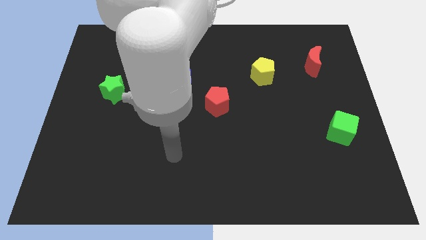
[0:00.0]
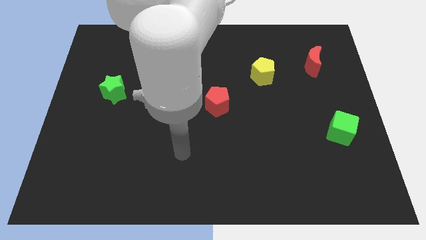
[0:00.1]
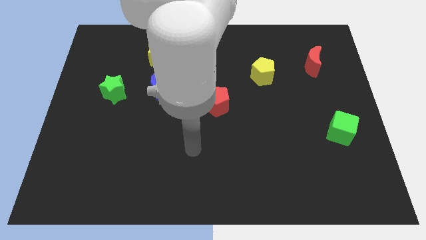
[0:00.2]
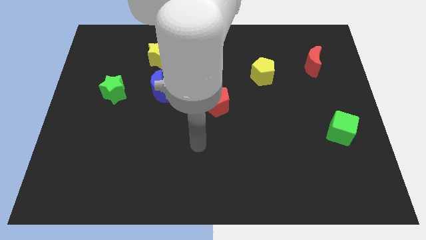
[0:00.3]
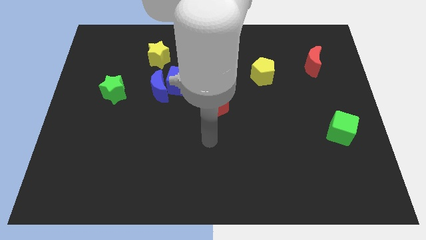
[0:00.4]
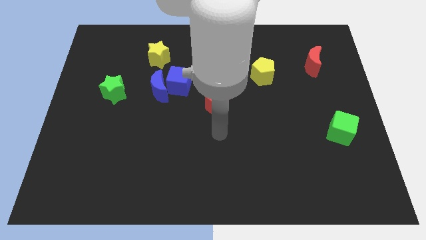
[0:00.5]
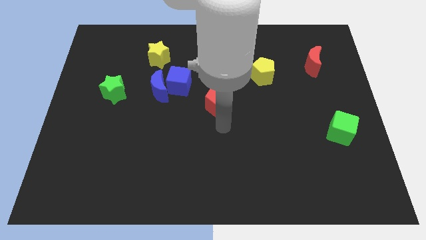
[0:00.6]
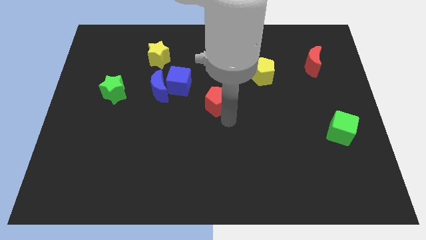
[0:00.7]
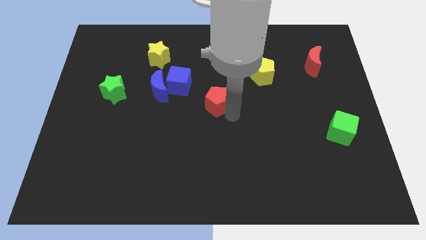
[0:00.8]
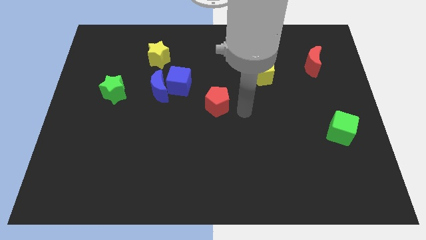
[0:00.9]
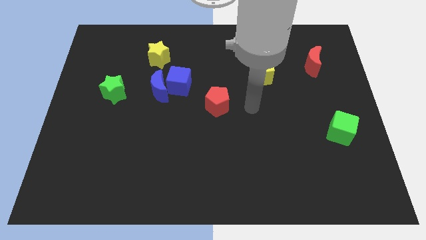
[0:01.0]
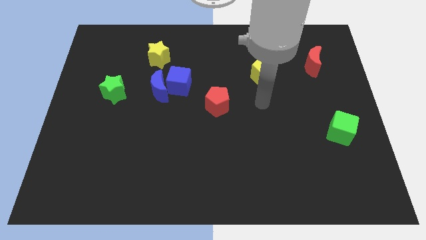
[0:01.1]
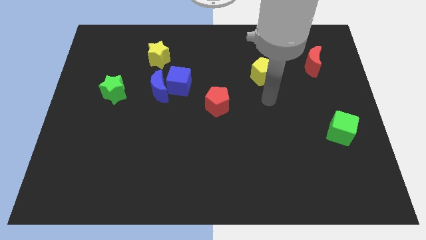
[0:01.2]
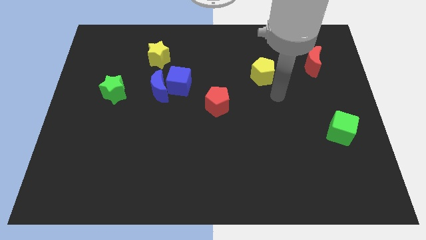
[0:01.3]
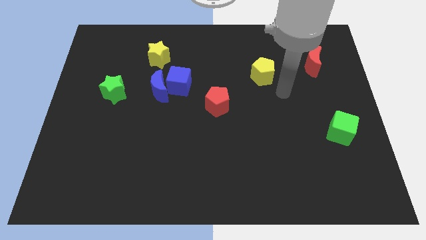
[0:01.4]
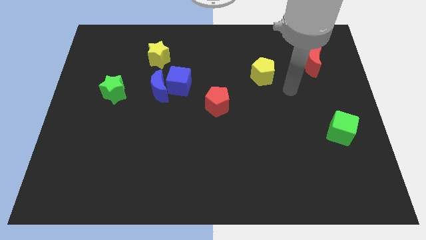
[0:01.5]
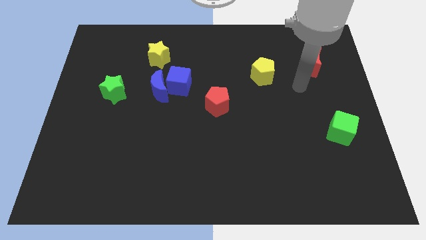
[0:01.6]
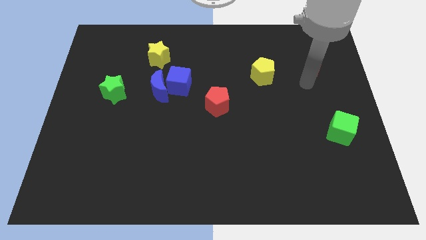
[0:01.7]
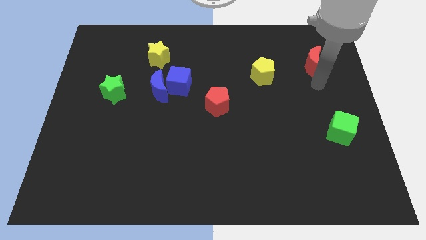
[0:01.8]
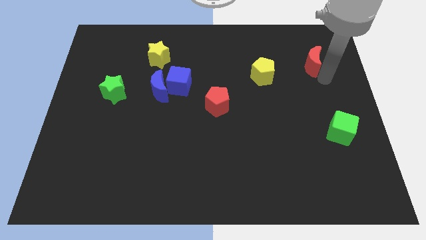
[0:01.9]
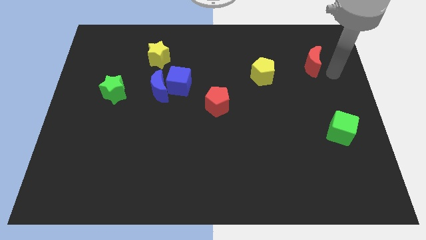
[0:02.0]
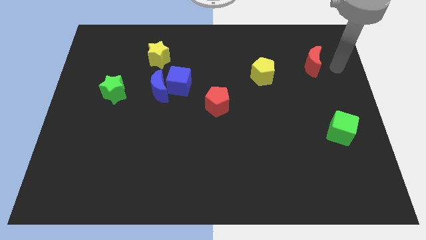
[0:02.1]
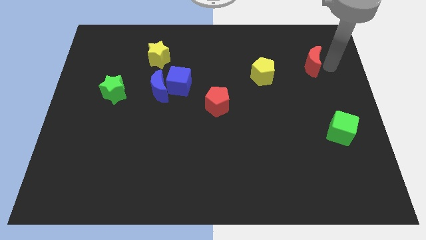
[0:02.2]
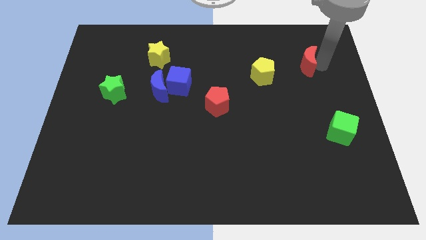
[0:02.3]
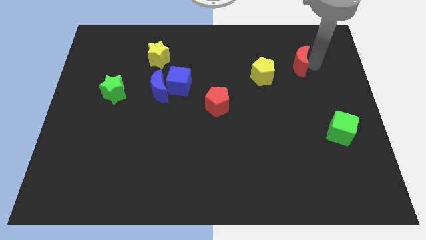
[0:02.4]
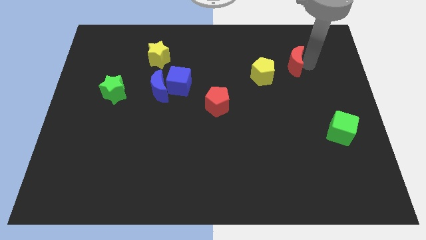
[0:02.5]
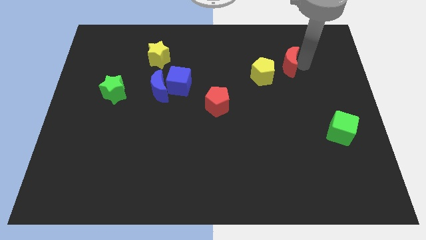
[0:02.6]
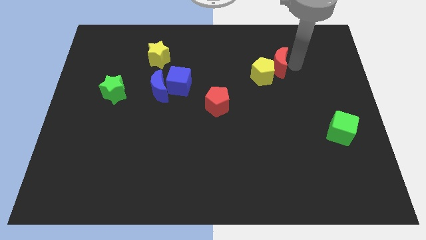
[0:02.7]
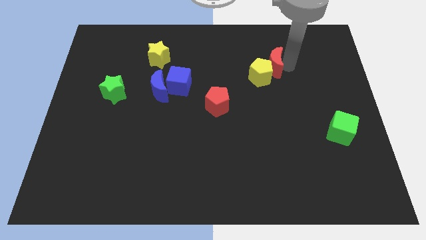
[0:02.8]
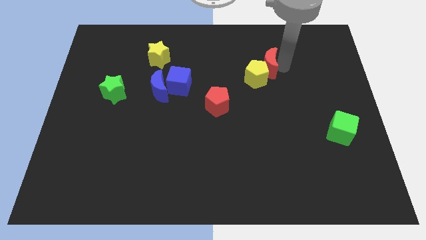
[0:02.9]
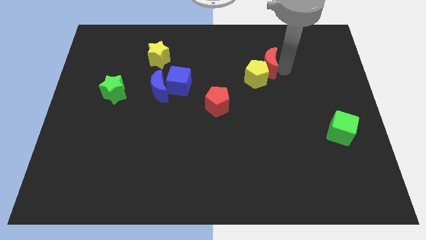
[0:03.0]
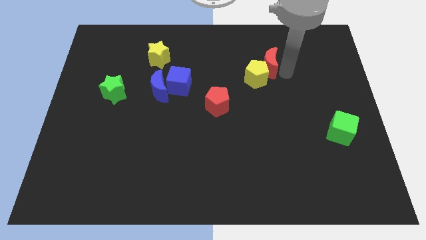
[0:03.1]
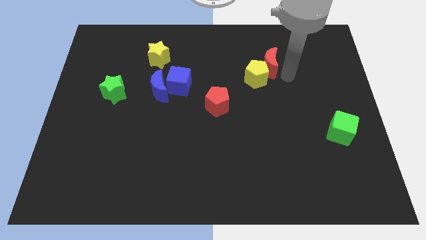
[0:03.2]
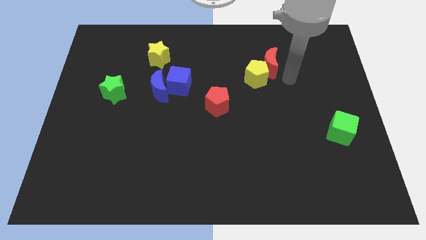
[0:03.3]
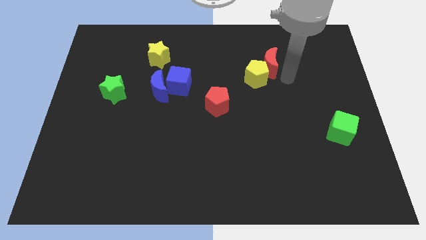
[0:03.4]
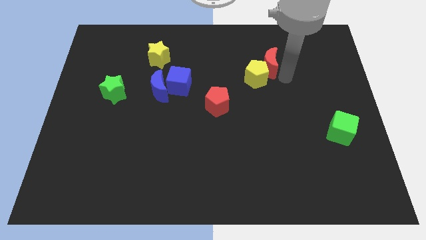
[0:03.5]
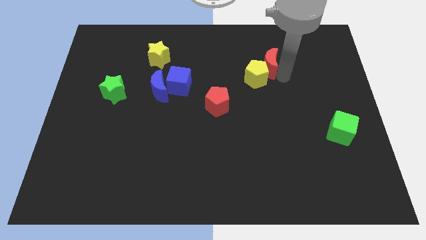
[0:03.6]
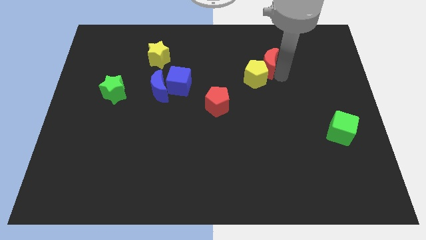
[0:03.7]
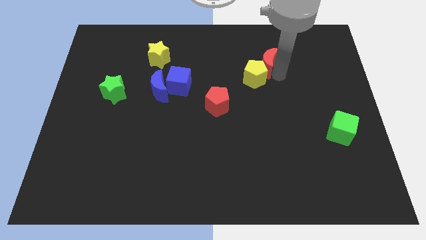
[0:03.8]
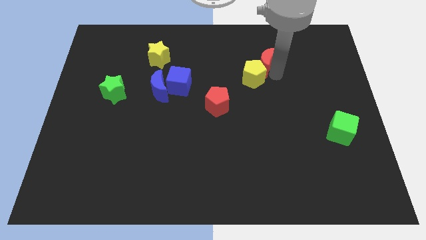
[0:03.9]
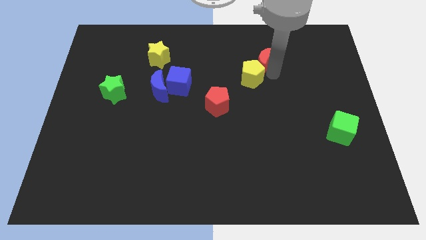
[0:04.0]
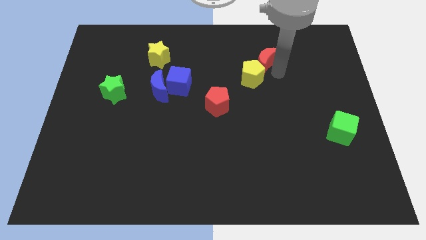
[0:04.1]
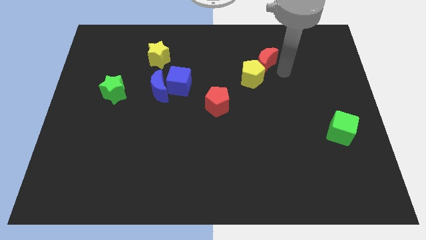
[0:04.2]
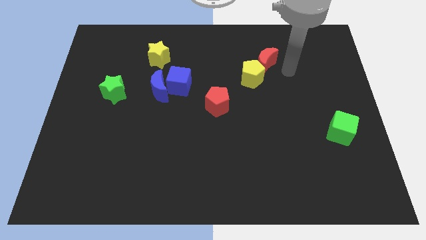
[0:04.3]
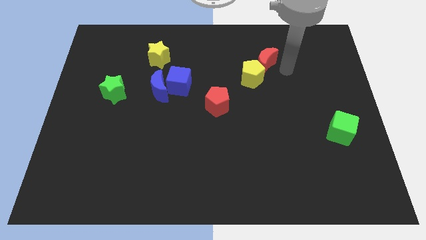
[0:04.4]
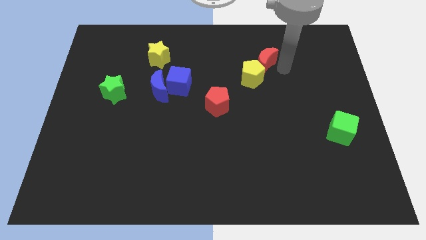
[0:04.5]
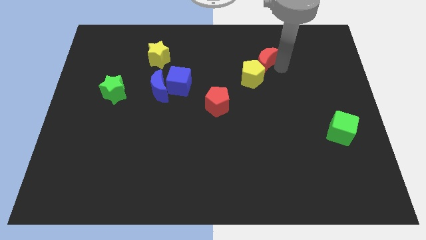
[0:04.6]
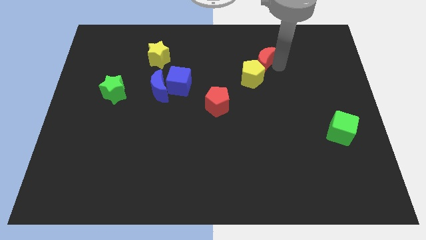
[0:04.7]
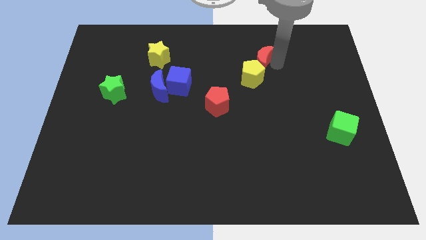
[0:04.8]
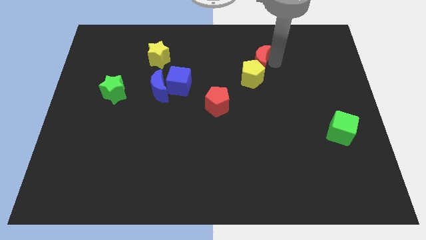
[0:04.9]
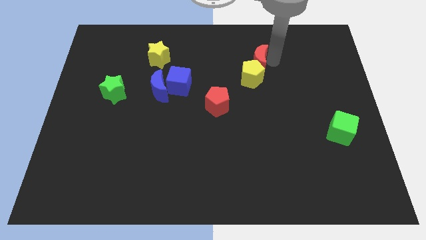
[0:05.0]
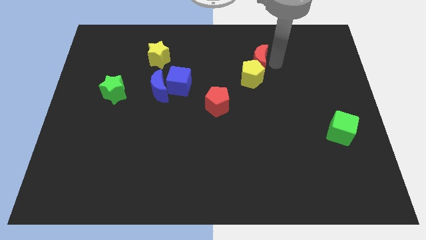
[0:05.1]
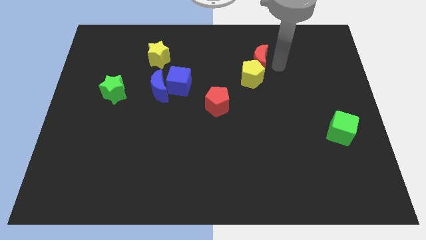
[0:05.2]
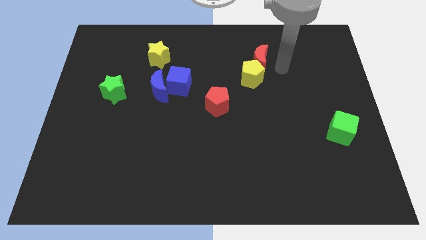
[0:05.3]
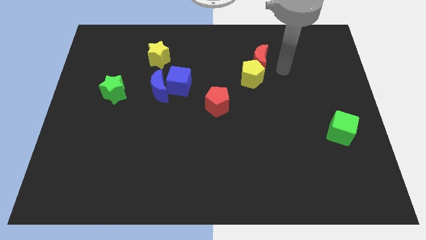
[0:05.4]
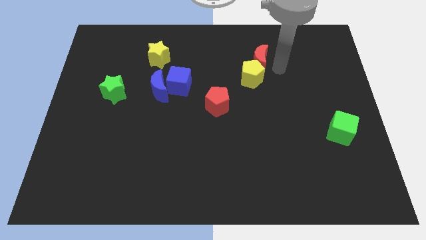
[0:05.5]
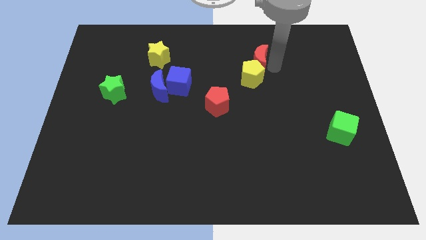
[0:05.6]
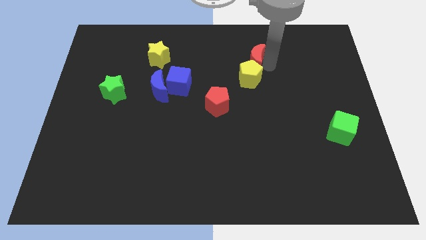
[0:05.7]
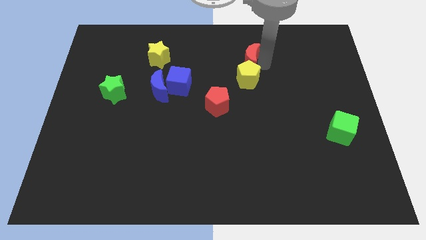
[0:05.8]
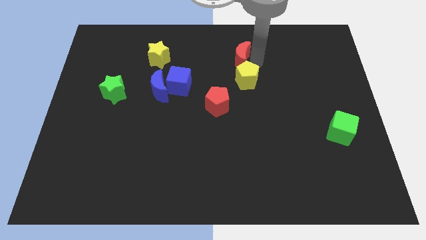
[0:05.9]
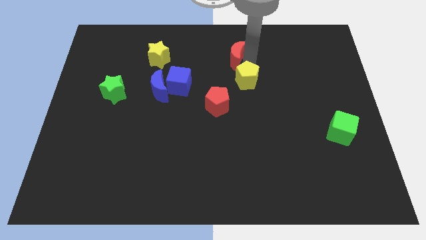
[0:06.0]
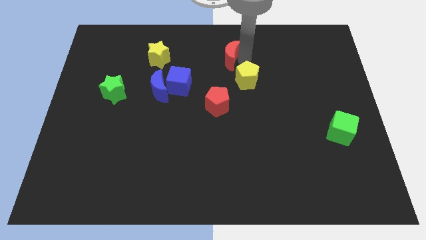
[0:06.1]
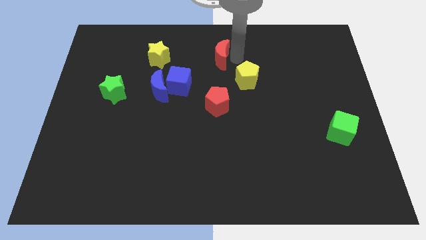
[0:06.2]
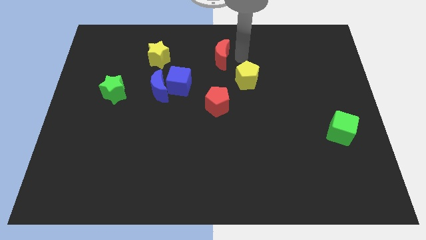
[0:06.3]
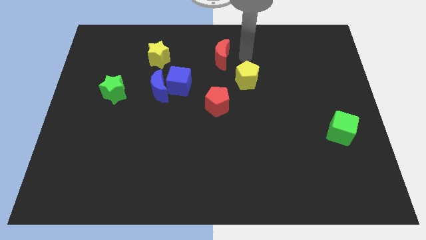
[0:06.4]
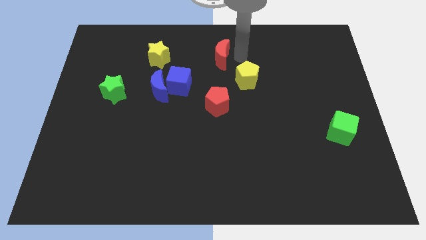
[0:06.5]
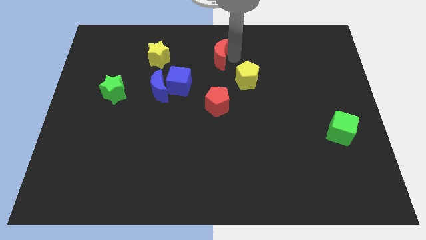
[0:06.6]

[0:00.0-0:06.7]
slide the red moon just right of the yellow star
